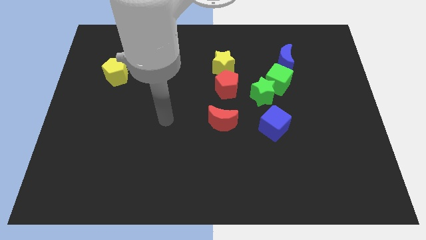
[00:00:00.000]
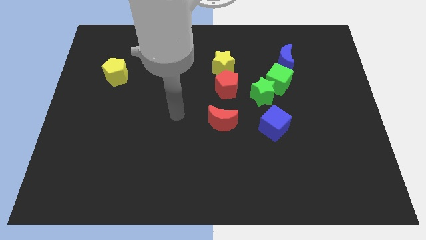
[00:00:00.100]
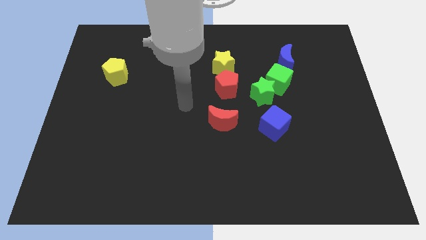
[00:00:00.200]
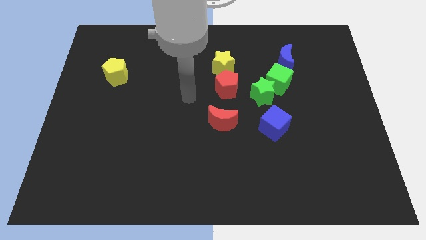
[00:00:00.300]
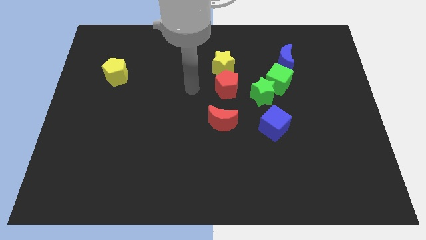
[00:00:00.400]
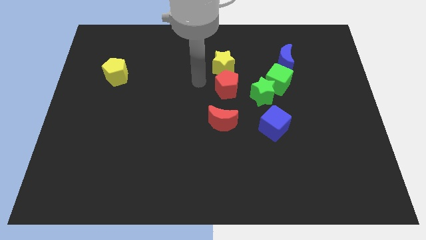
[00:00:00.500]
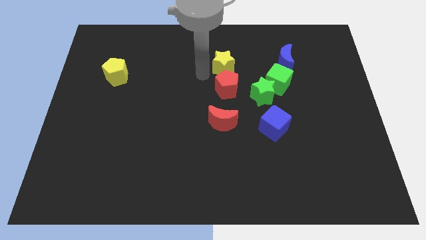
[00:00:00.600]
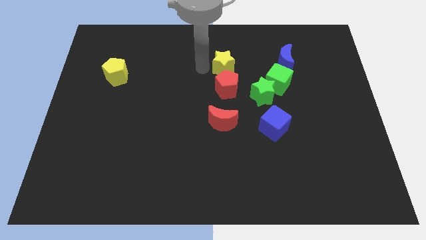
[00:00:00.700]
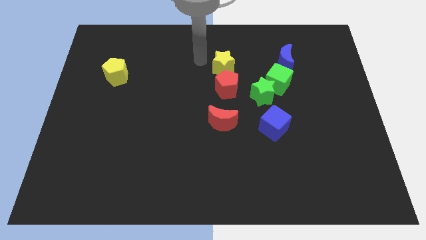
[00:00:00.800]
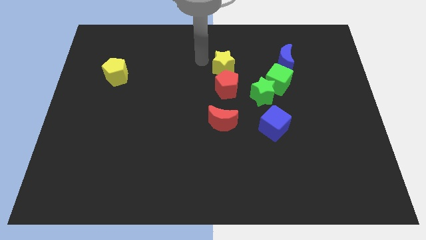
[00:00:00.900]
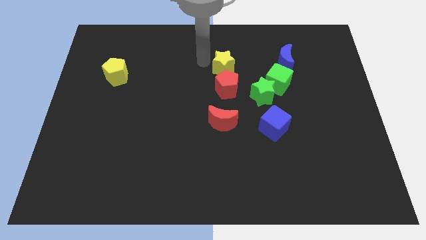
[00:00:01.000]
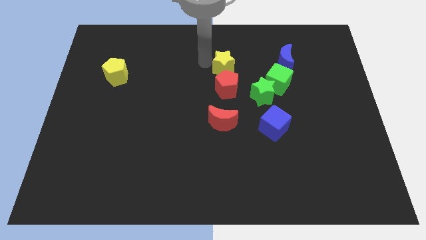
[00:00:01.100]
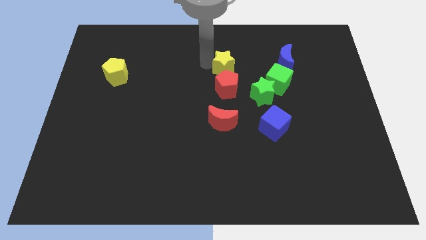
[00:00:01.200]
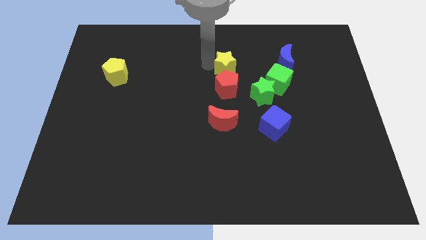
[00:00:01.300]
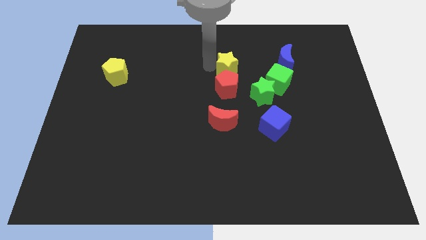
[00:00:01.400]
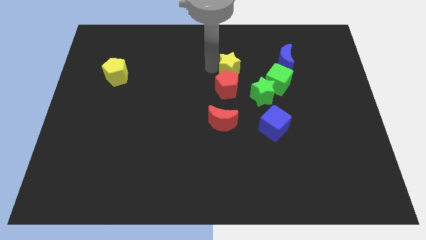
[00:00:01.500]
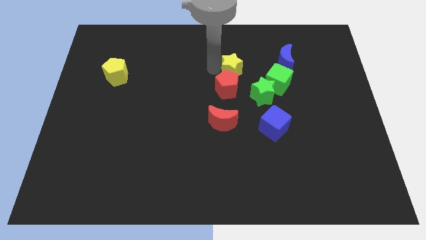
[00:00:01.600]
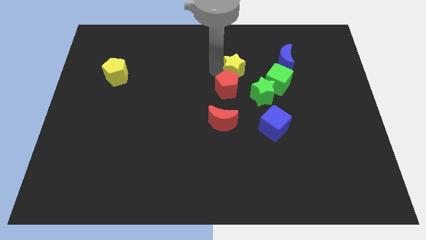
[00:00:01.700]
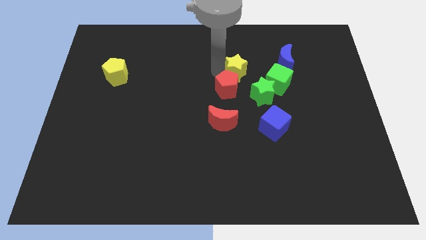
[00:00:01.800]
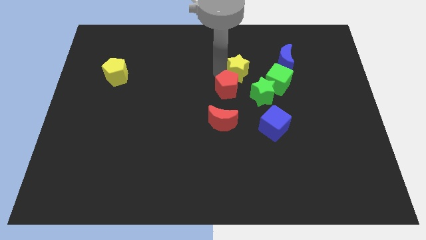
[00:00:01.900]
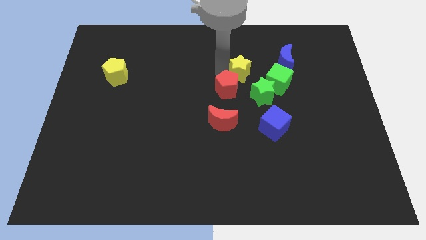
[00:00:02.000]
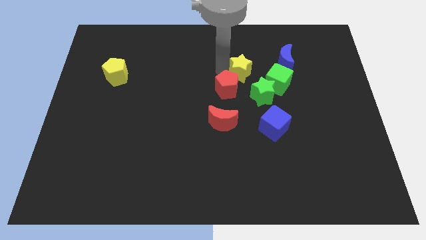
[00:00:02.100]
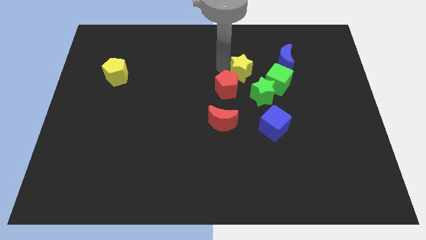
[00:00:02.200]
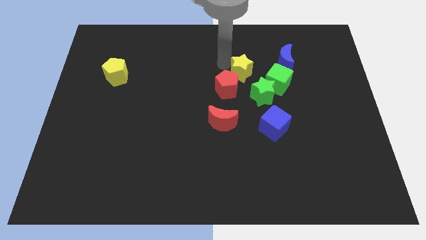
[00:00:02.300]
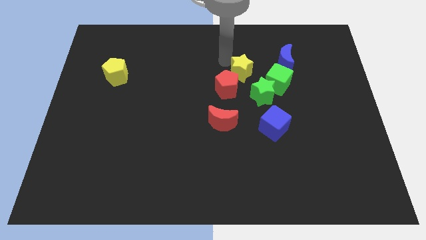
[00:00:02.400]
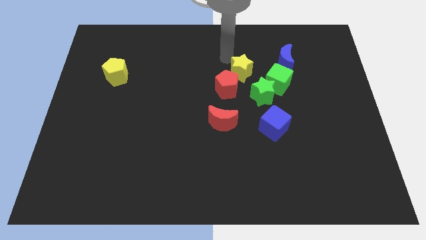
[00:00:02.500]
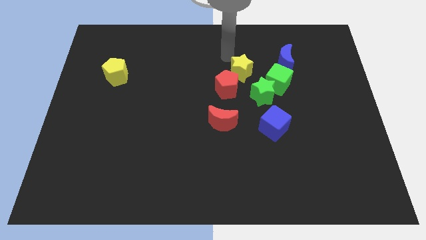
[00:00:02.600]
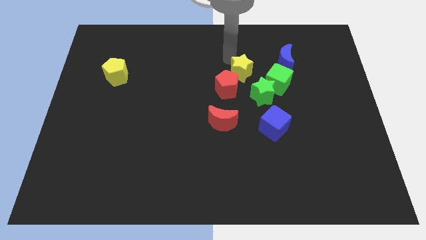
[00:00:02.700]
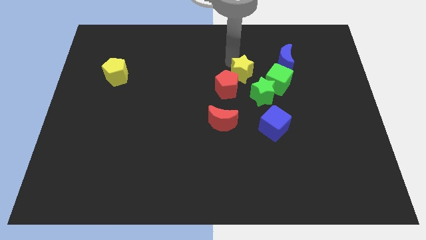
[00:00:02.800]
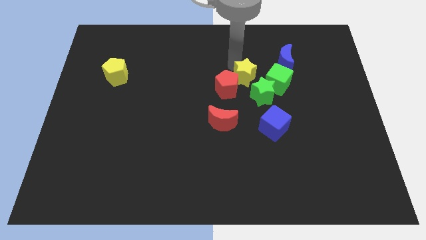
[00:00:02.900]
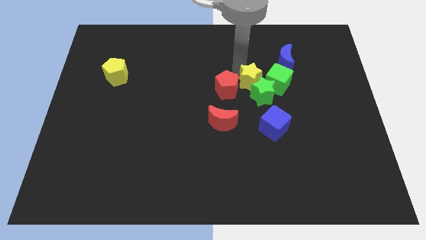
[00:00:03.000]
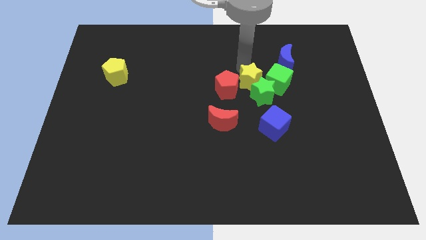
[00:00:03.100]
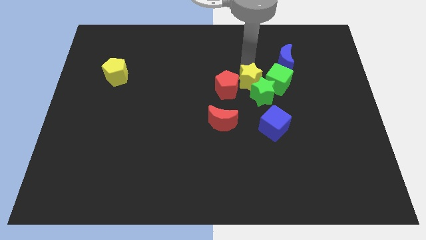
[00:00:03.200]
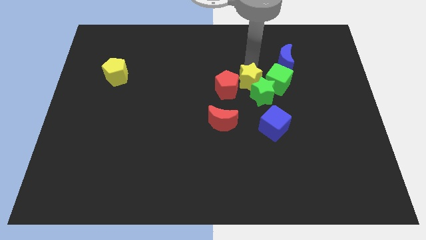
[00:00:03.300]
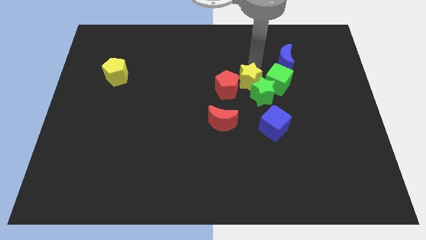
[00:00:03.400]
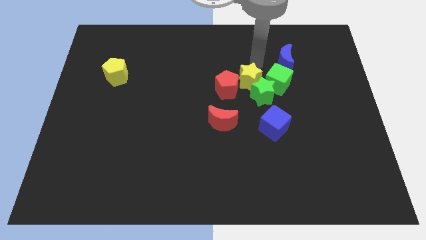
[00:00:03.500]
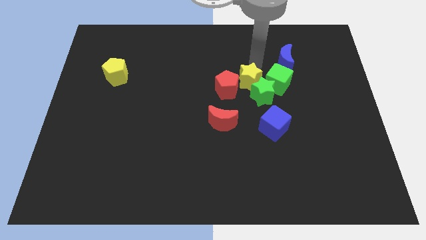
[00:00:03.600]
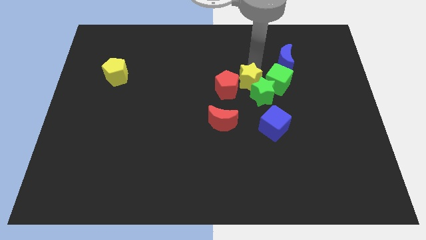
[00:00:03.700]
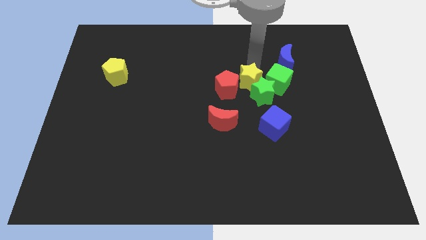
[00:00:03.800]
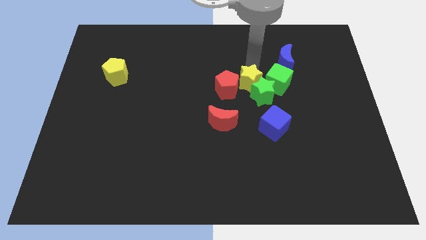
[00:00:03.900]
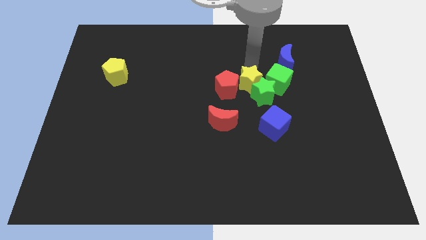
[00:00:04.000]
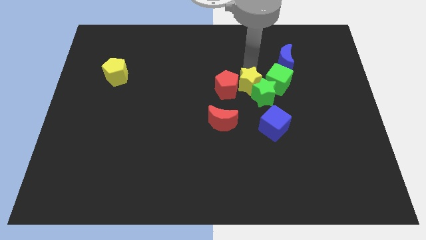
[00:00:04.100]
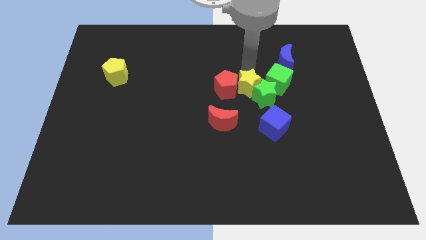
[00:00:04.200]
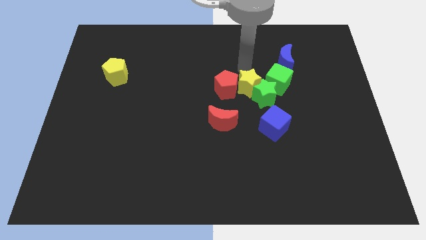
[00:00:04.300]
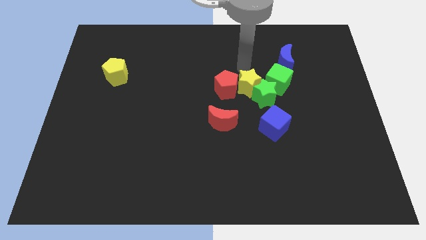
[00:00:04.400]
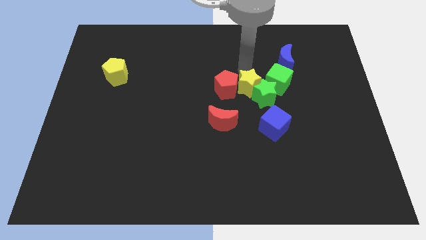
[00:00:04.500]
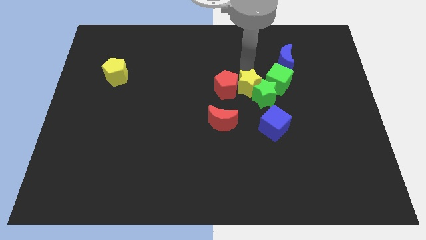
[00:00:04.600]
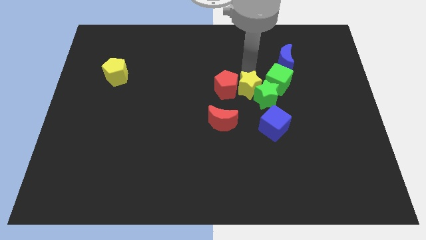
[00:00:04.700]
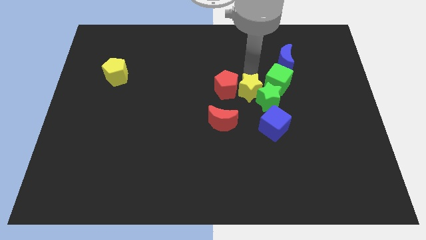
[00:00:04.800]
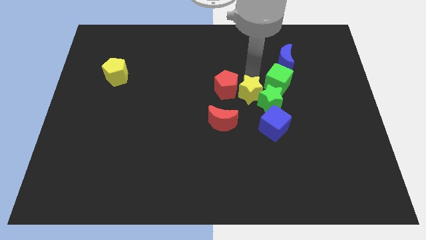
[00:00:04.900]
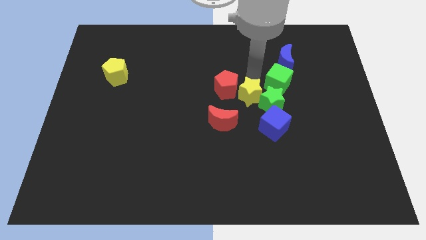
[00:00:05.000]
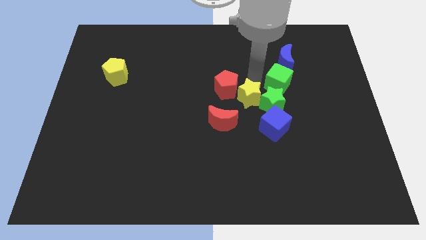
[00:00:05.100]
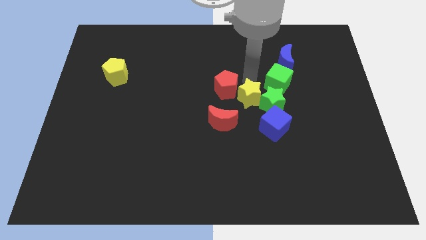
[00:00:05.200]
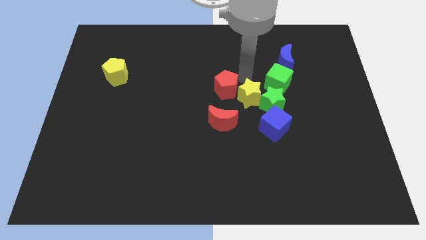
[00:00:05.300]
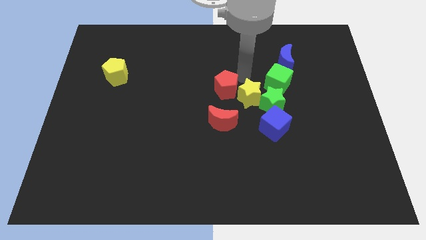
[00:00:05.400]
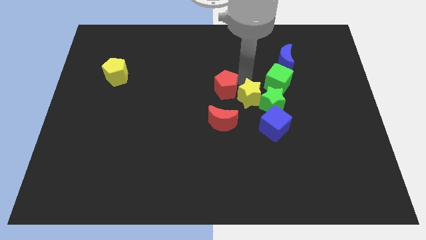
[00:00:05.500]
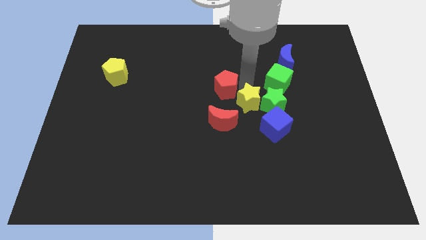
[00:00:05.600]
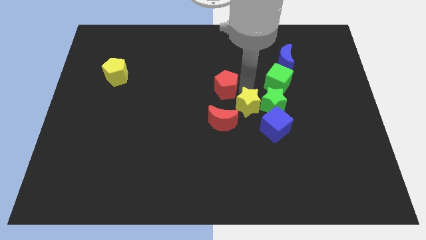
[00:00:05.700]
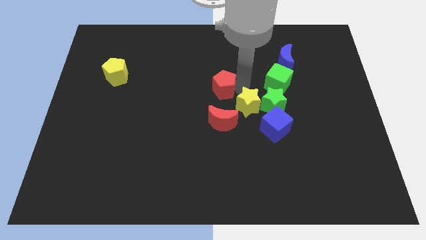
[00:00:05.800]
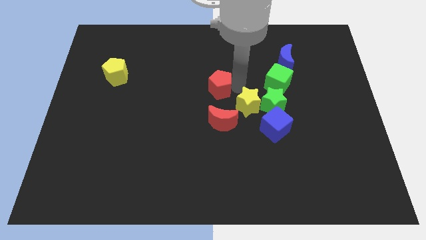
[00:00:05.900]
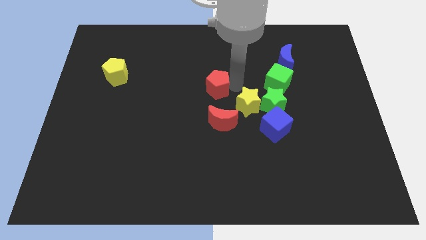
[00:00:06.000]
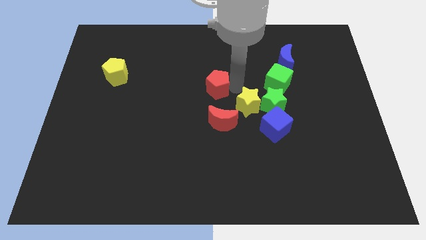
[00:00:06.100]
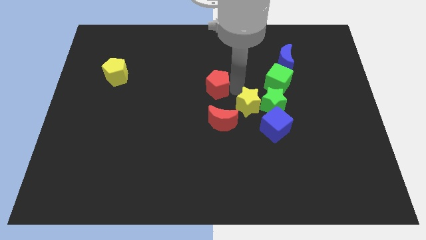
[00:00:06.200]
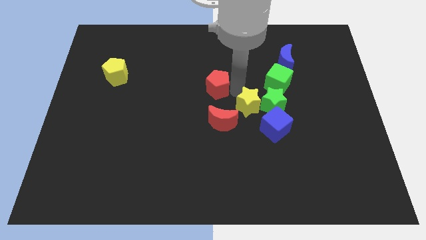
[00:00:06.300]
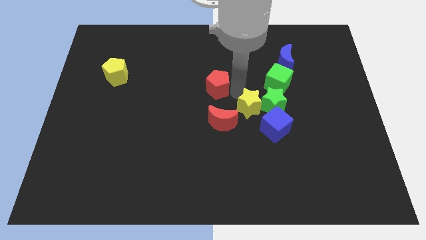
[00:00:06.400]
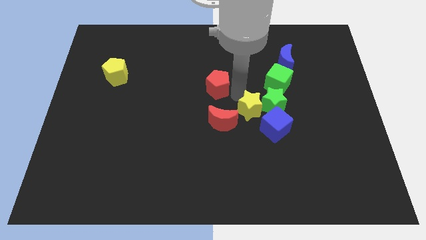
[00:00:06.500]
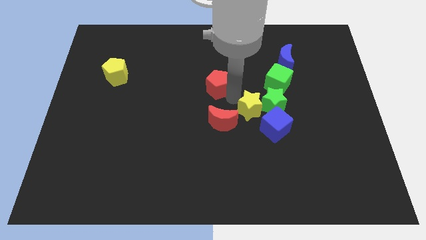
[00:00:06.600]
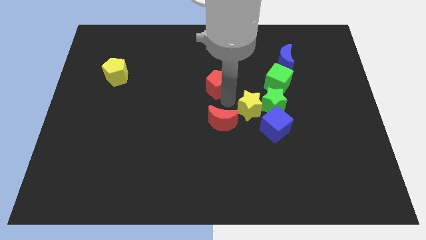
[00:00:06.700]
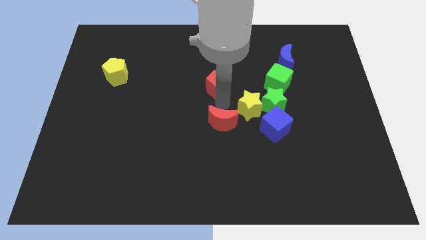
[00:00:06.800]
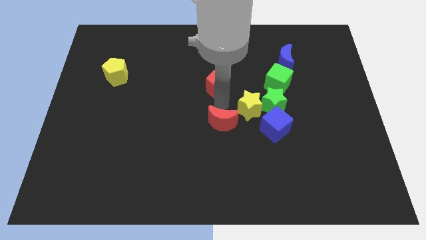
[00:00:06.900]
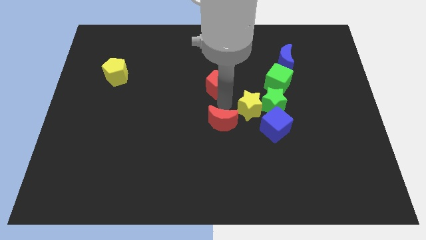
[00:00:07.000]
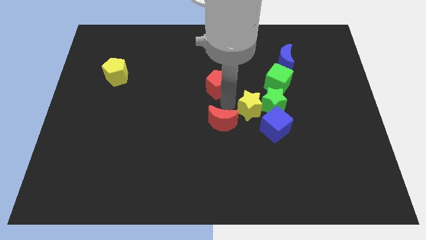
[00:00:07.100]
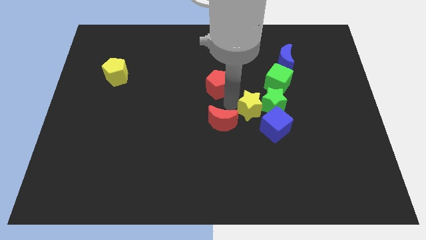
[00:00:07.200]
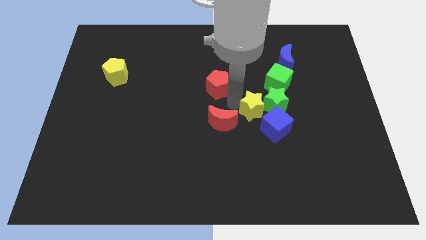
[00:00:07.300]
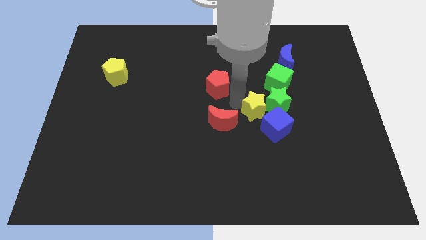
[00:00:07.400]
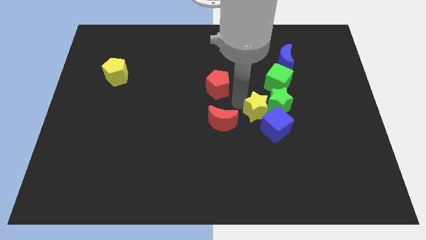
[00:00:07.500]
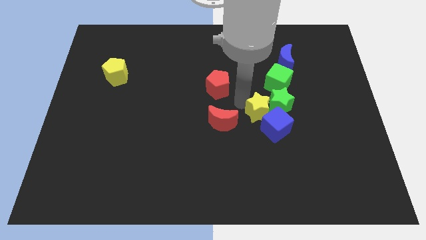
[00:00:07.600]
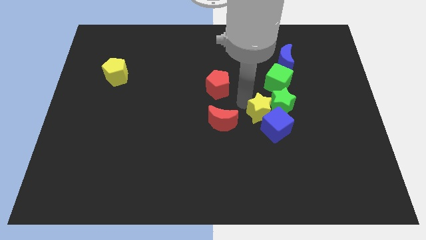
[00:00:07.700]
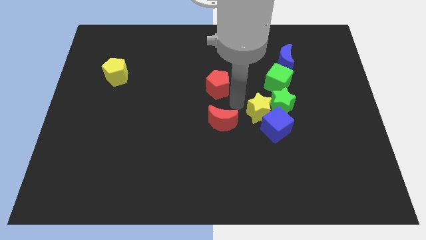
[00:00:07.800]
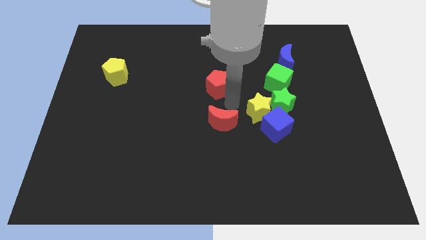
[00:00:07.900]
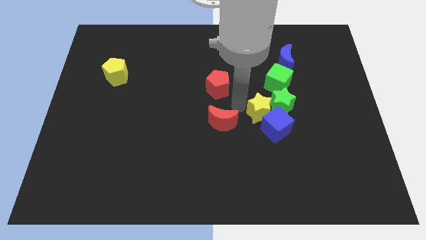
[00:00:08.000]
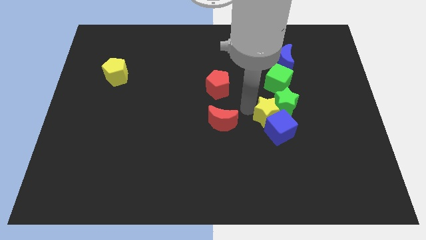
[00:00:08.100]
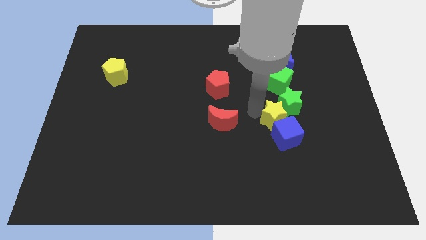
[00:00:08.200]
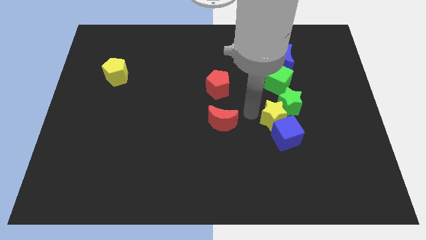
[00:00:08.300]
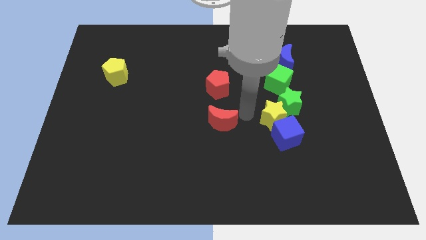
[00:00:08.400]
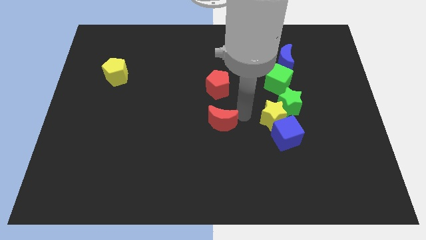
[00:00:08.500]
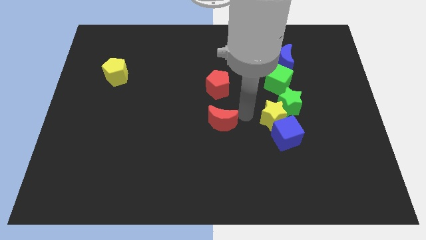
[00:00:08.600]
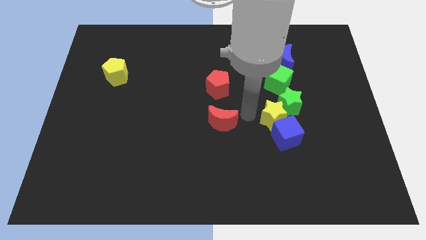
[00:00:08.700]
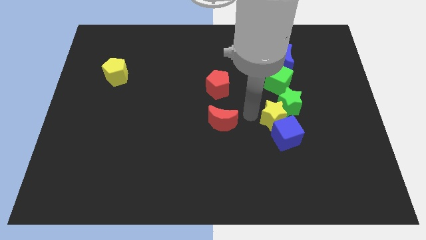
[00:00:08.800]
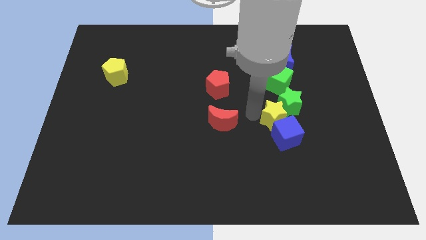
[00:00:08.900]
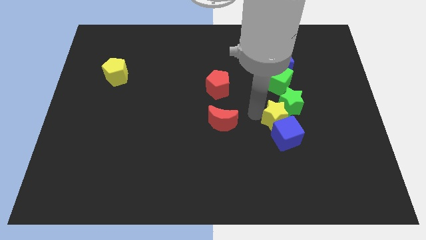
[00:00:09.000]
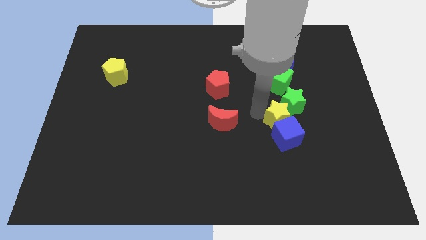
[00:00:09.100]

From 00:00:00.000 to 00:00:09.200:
push the yellow star down and right diagonally
